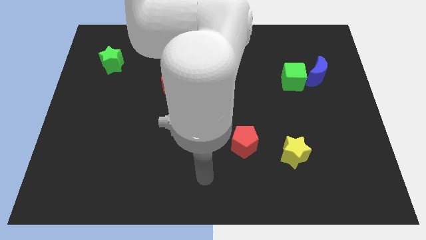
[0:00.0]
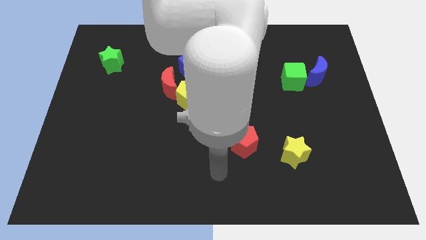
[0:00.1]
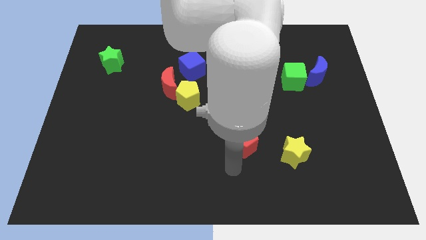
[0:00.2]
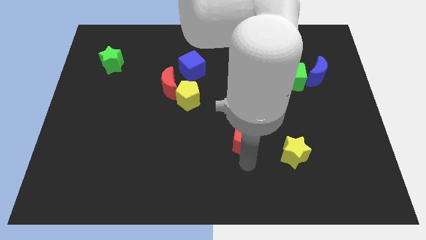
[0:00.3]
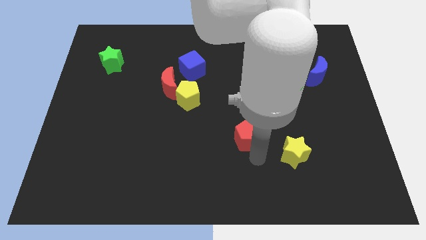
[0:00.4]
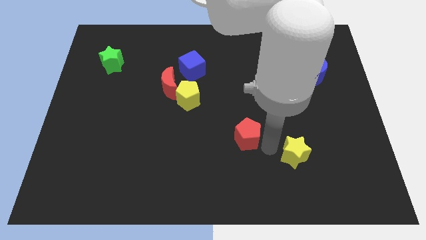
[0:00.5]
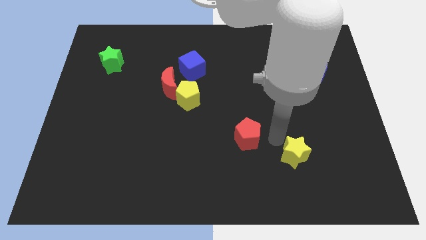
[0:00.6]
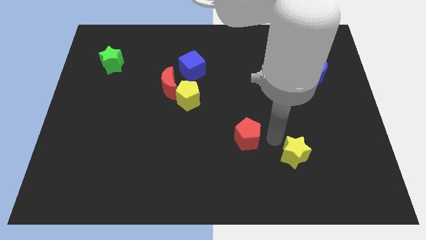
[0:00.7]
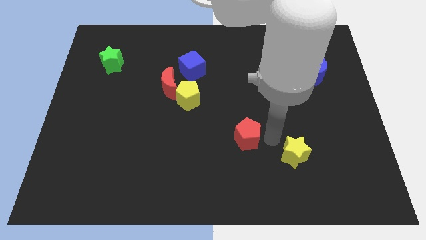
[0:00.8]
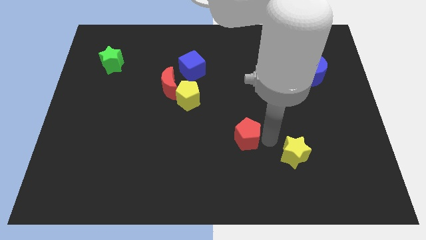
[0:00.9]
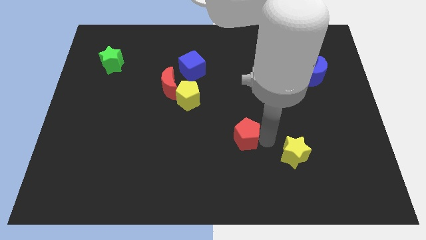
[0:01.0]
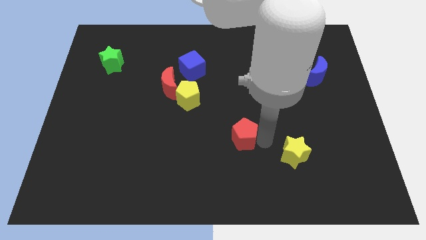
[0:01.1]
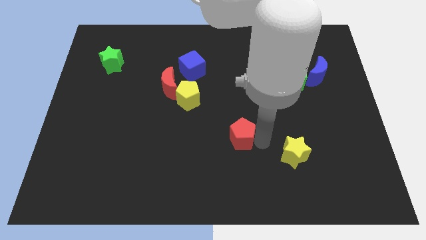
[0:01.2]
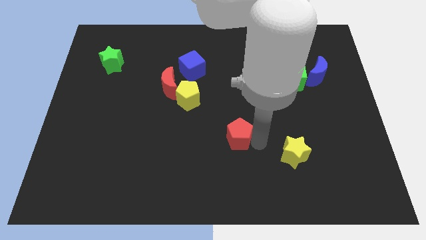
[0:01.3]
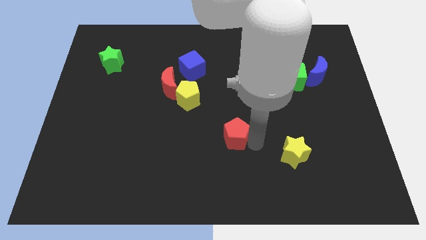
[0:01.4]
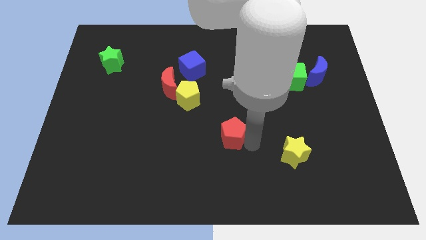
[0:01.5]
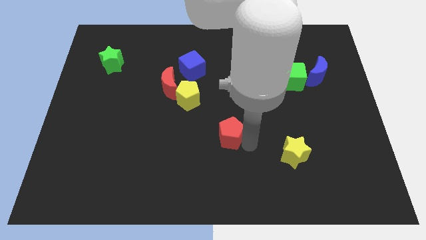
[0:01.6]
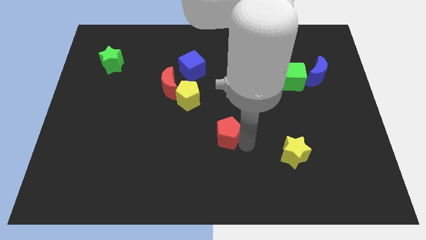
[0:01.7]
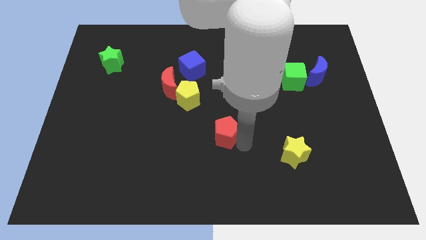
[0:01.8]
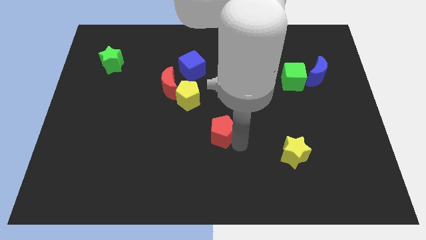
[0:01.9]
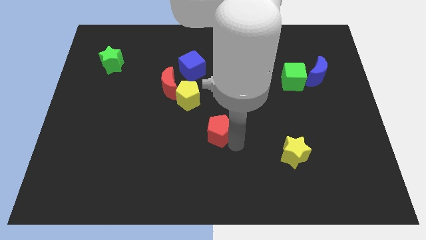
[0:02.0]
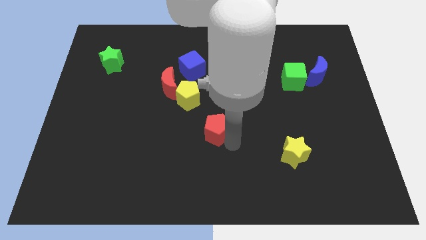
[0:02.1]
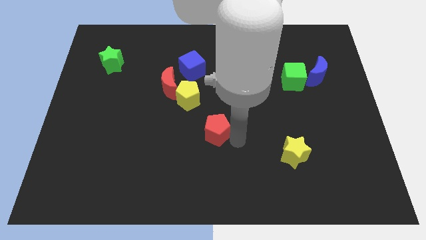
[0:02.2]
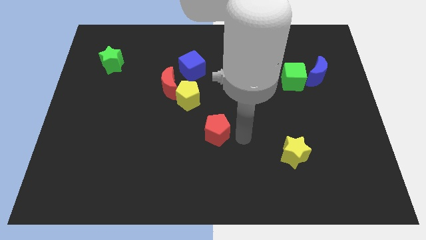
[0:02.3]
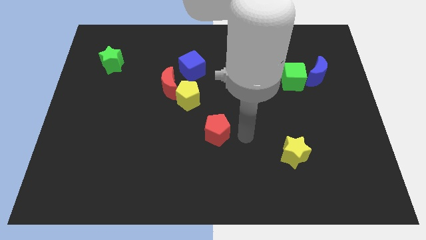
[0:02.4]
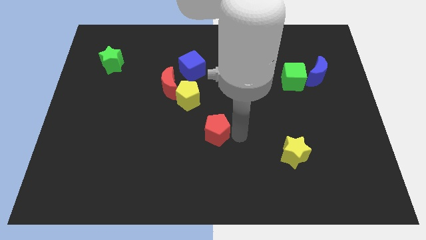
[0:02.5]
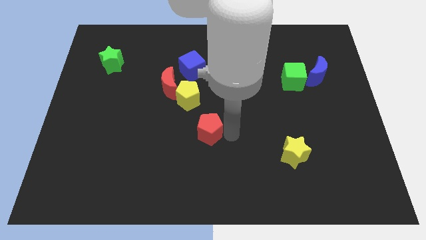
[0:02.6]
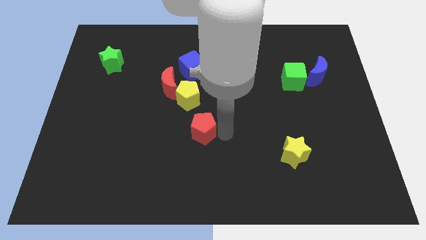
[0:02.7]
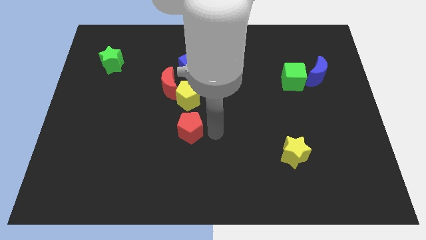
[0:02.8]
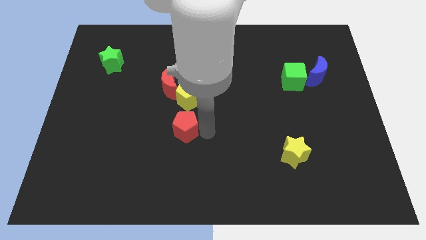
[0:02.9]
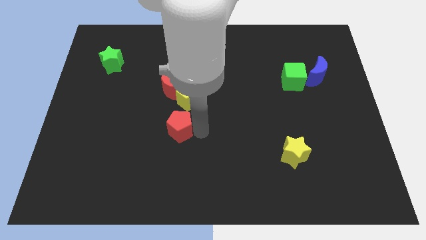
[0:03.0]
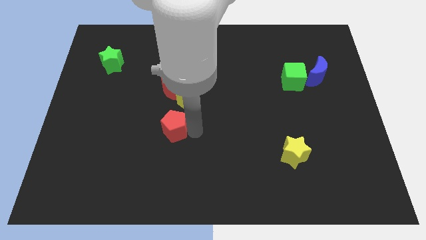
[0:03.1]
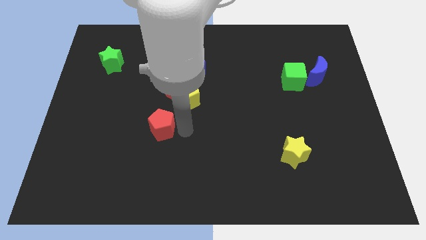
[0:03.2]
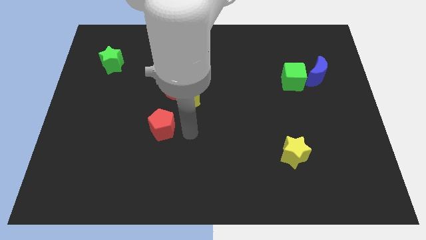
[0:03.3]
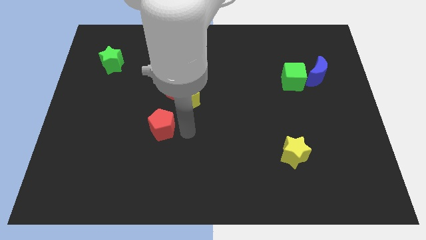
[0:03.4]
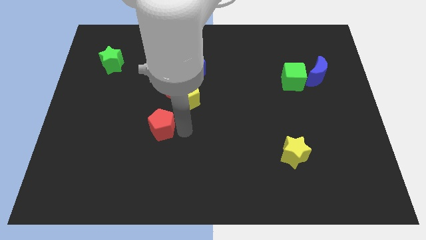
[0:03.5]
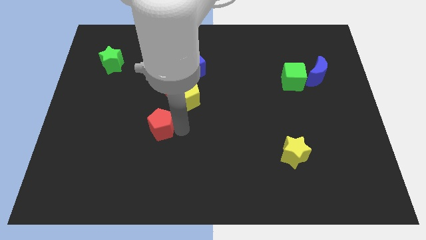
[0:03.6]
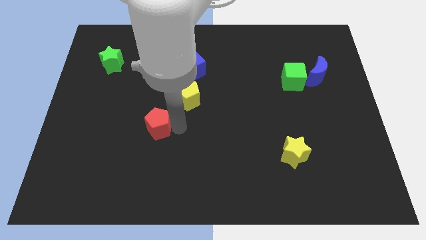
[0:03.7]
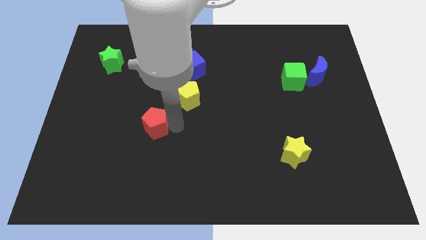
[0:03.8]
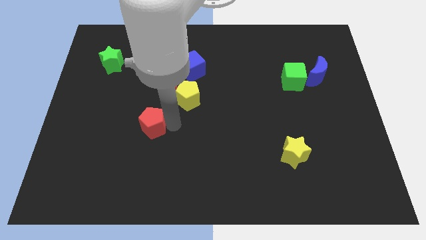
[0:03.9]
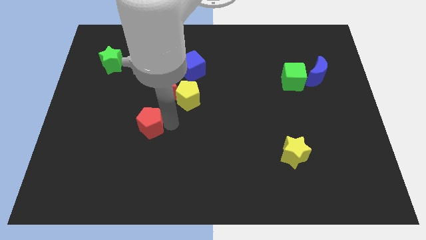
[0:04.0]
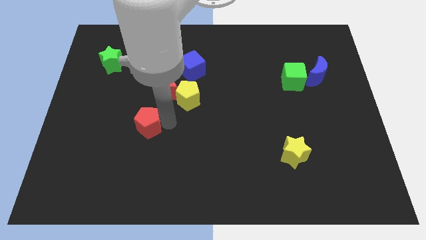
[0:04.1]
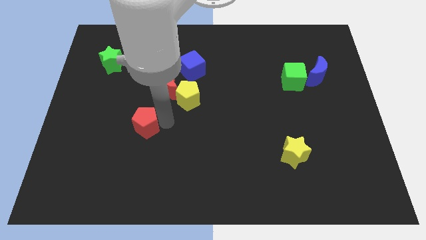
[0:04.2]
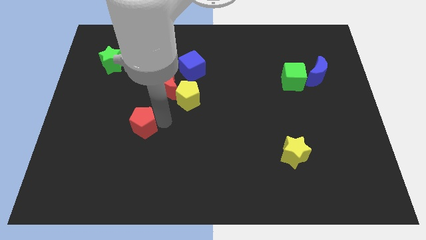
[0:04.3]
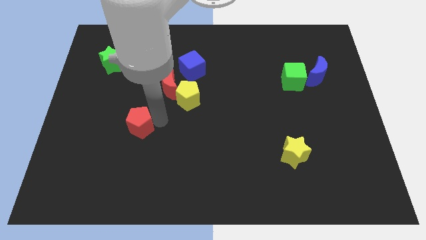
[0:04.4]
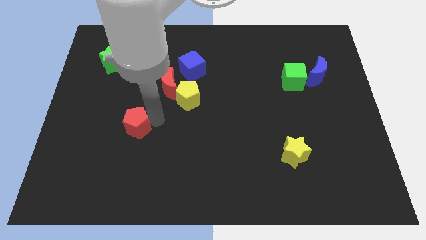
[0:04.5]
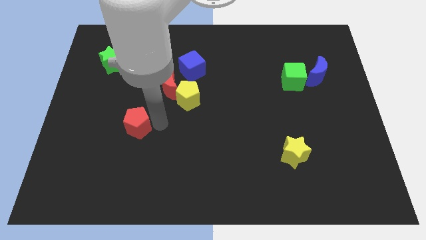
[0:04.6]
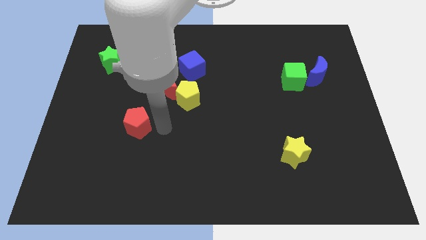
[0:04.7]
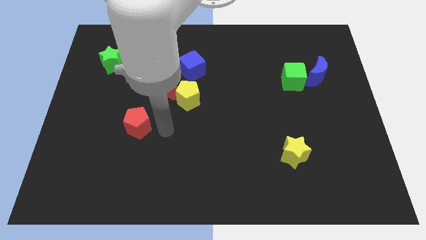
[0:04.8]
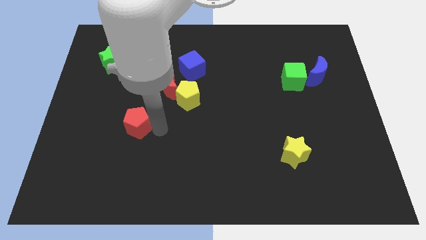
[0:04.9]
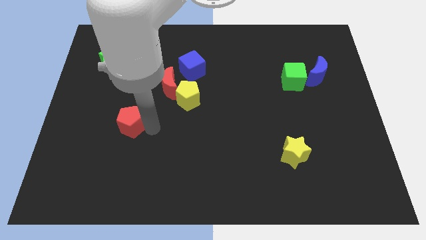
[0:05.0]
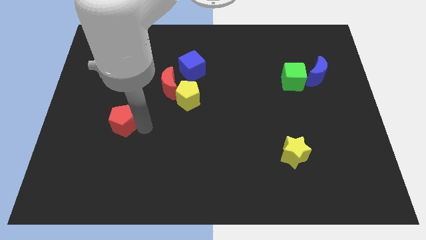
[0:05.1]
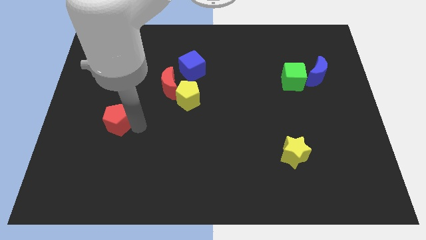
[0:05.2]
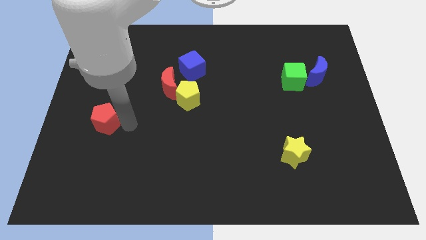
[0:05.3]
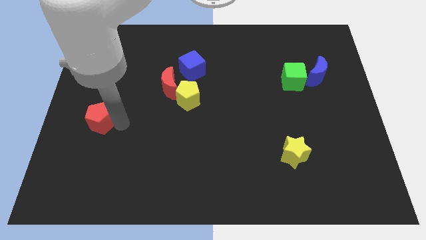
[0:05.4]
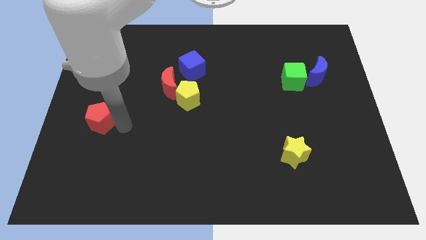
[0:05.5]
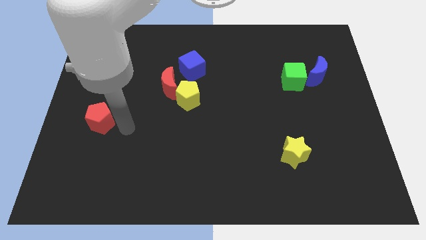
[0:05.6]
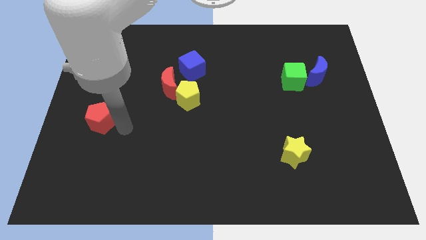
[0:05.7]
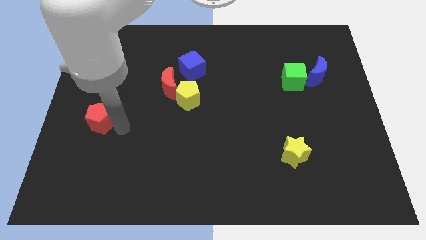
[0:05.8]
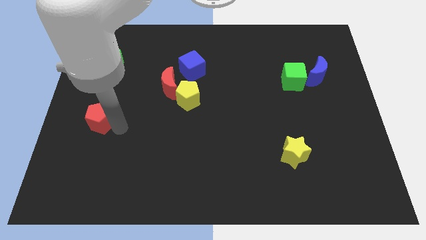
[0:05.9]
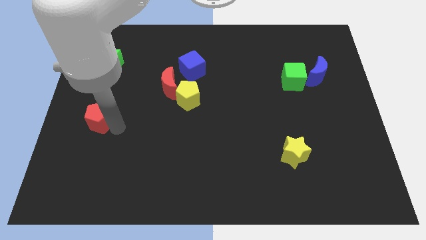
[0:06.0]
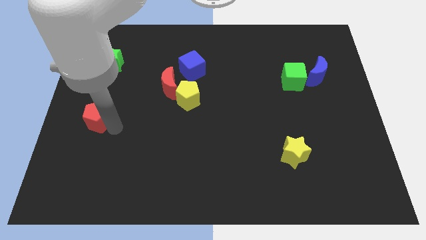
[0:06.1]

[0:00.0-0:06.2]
put the red pentagon to the left side

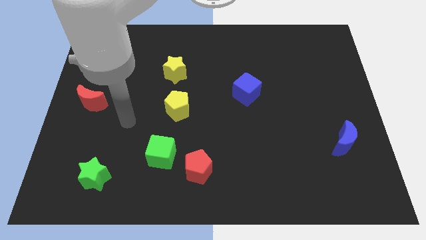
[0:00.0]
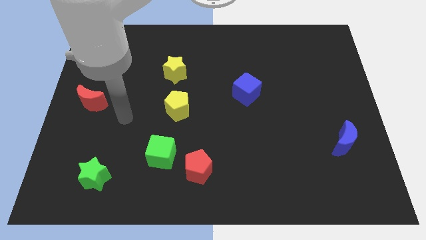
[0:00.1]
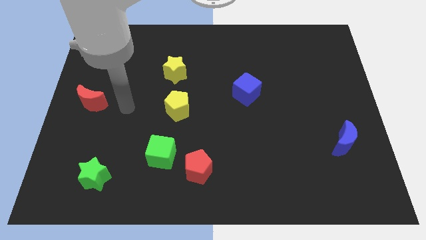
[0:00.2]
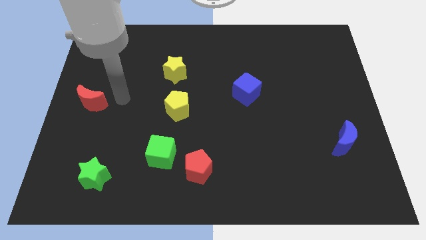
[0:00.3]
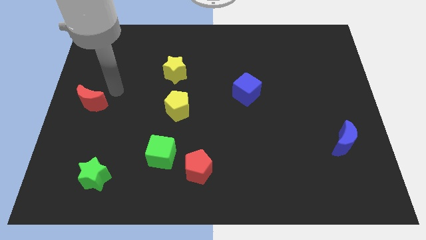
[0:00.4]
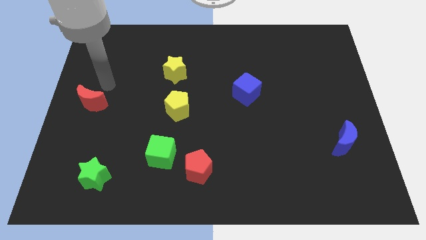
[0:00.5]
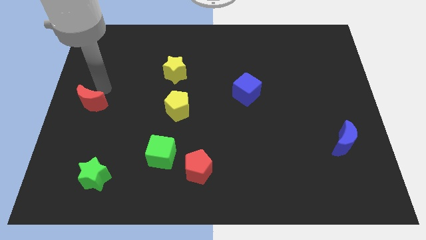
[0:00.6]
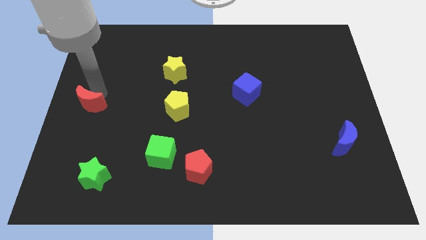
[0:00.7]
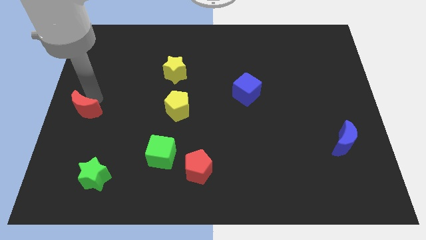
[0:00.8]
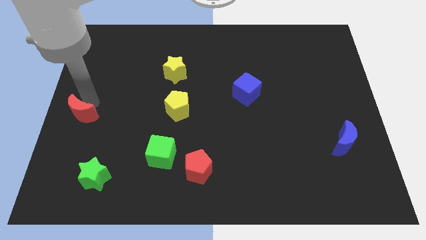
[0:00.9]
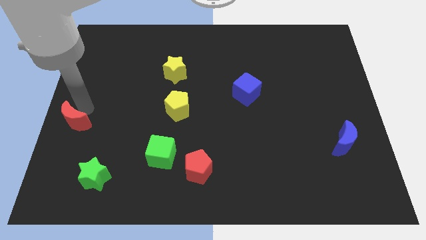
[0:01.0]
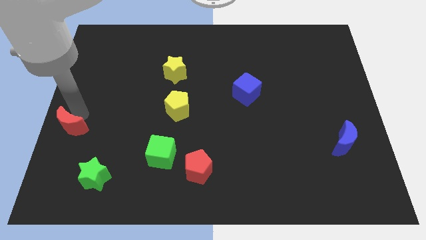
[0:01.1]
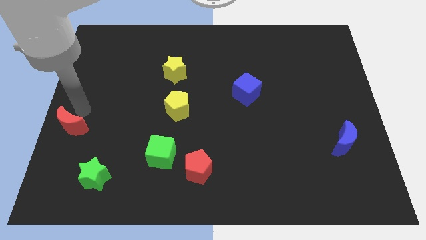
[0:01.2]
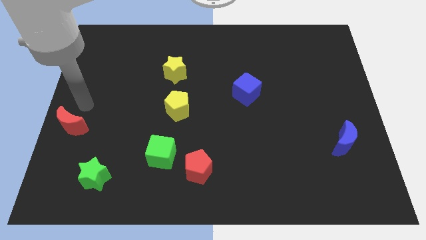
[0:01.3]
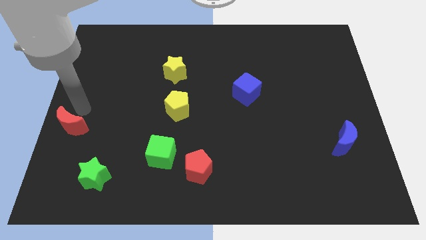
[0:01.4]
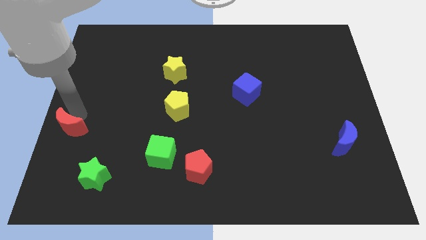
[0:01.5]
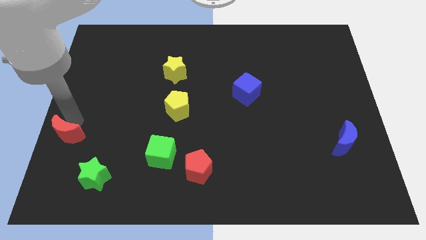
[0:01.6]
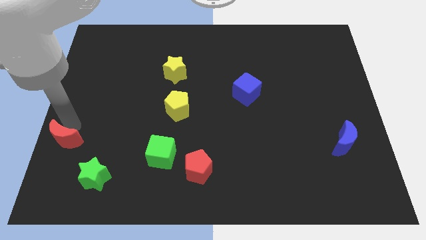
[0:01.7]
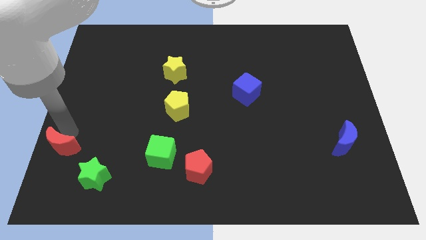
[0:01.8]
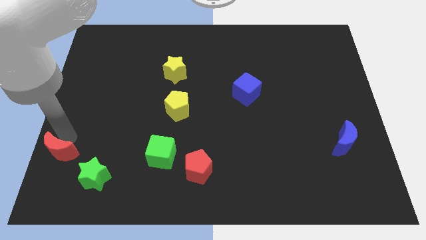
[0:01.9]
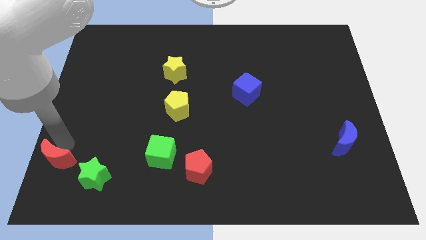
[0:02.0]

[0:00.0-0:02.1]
put the red moon to the bottom left
